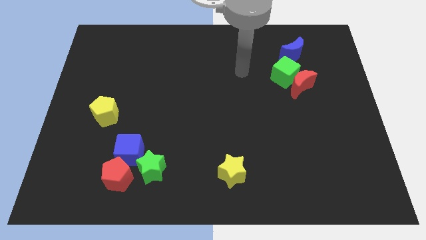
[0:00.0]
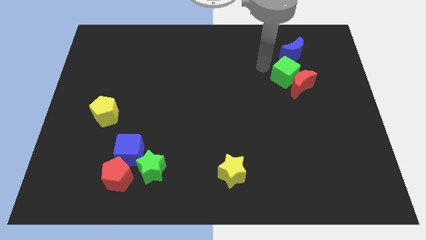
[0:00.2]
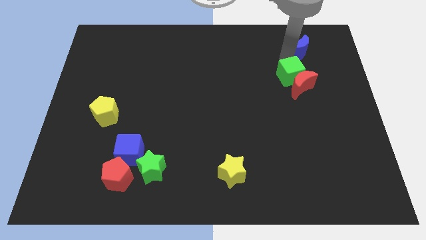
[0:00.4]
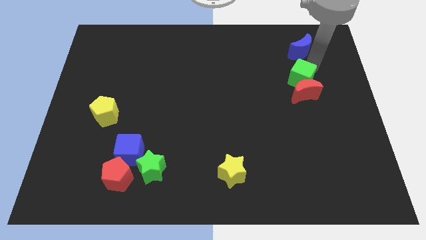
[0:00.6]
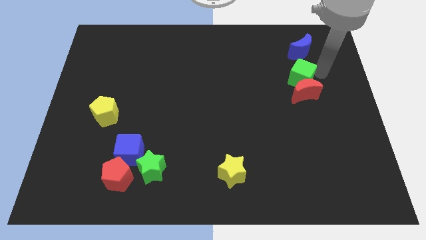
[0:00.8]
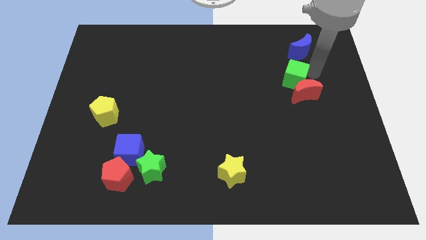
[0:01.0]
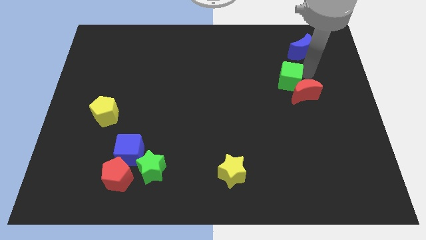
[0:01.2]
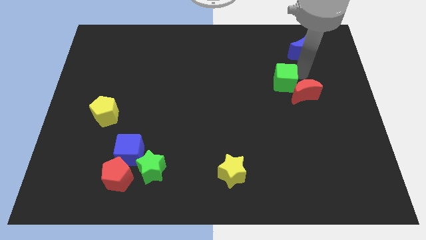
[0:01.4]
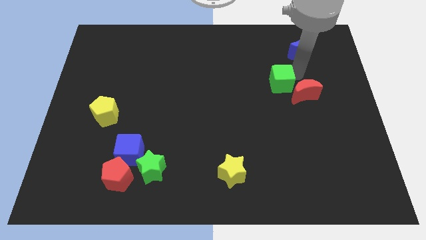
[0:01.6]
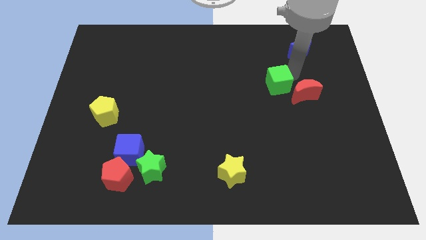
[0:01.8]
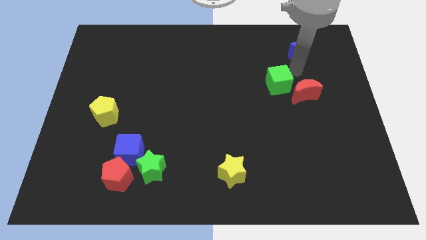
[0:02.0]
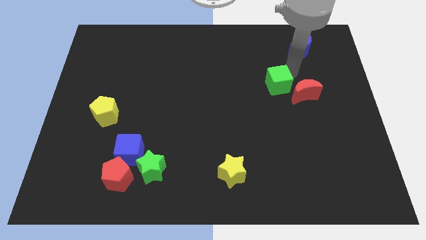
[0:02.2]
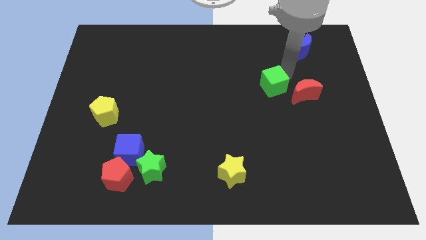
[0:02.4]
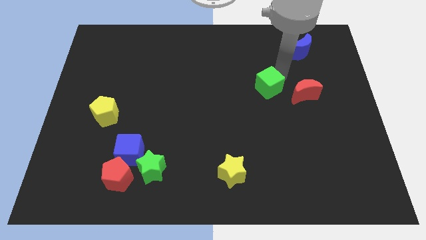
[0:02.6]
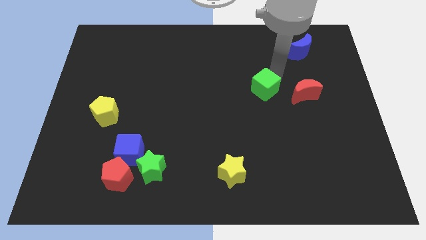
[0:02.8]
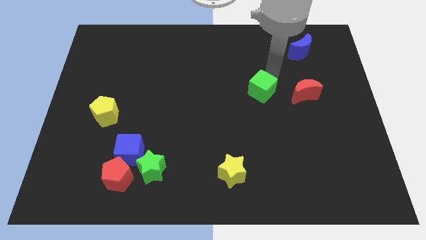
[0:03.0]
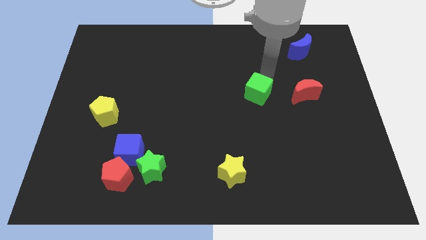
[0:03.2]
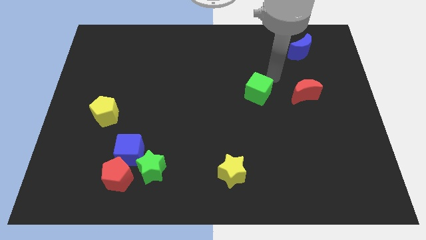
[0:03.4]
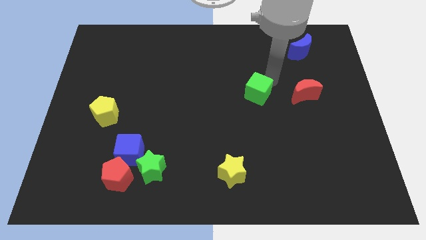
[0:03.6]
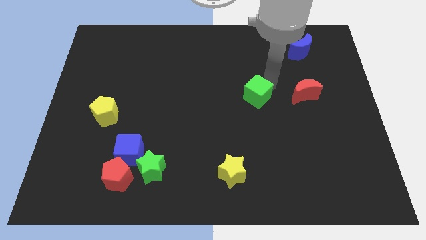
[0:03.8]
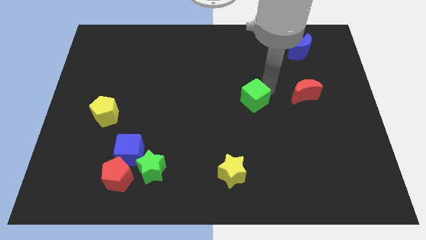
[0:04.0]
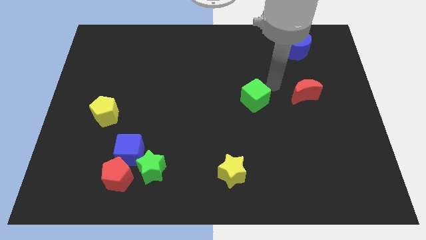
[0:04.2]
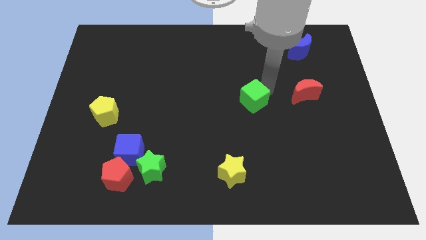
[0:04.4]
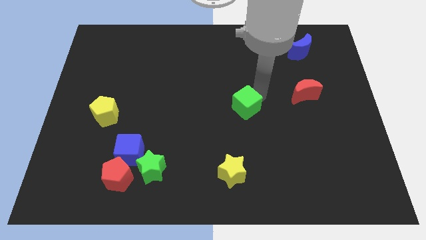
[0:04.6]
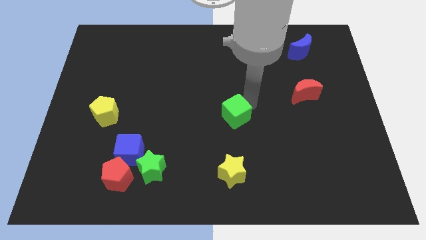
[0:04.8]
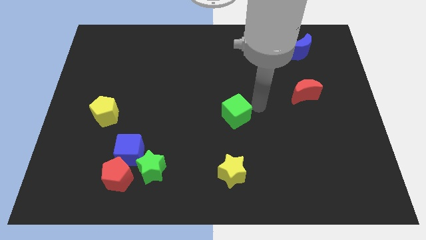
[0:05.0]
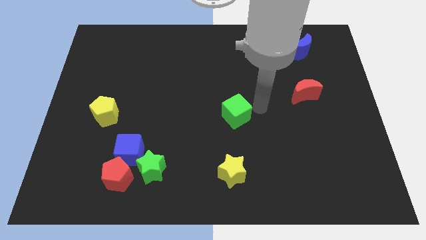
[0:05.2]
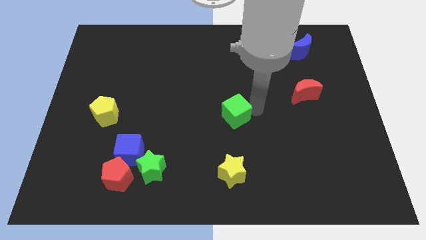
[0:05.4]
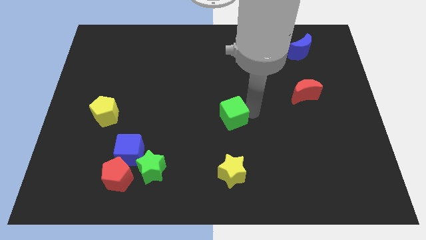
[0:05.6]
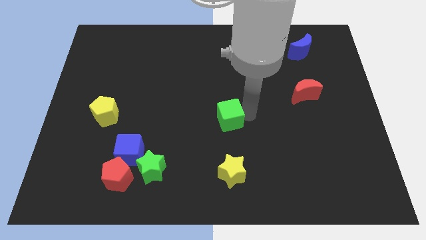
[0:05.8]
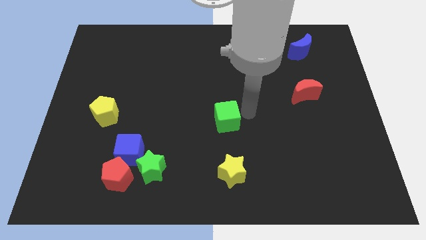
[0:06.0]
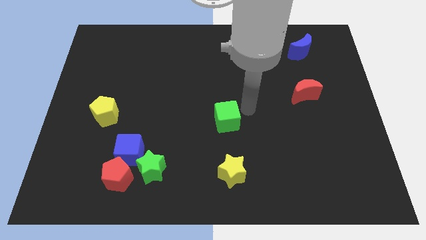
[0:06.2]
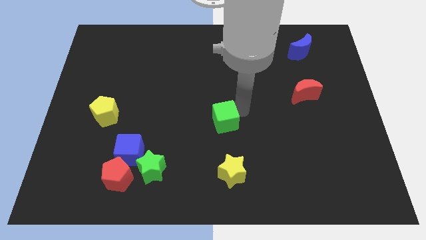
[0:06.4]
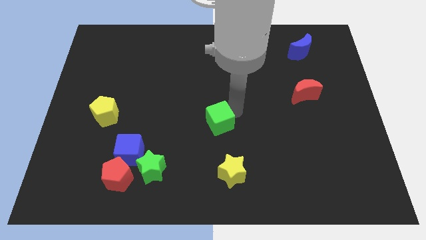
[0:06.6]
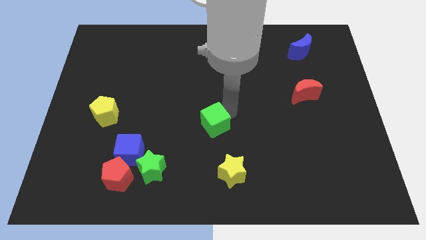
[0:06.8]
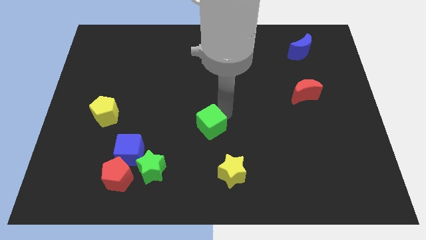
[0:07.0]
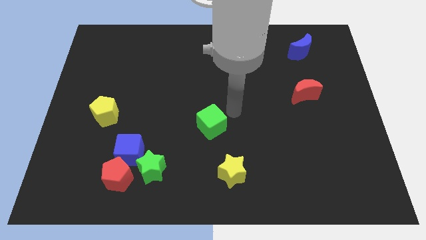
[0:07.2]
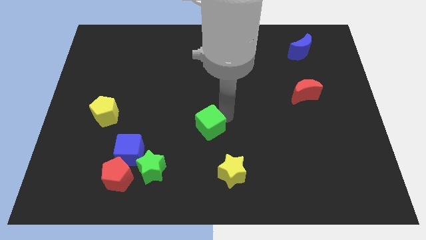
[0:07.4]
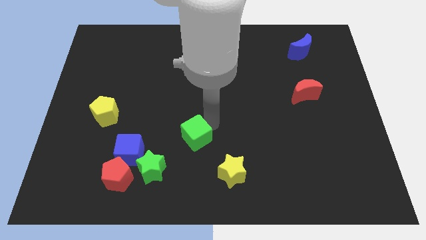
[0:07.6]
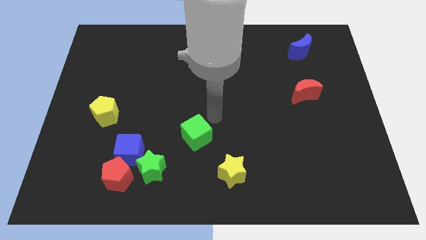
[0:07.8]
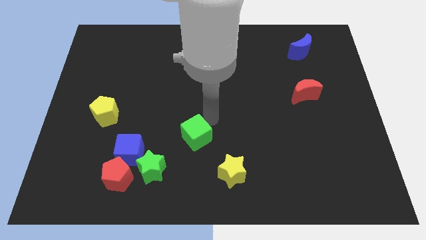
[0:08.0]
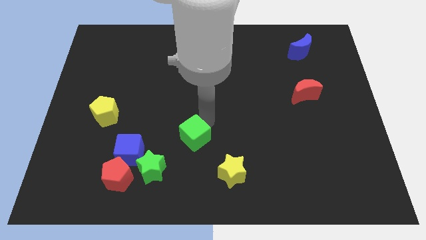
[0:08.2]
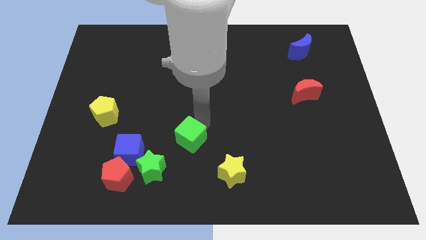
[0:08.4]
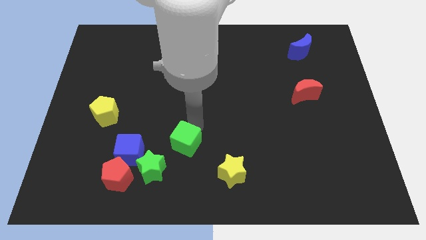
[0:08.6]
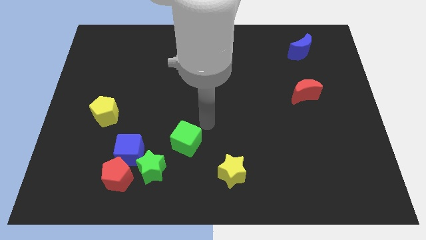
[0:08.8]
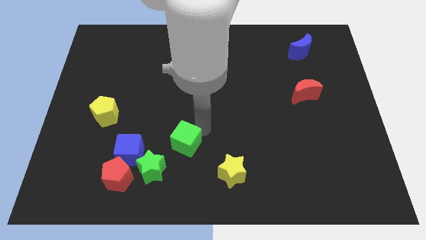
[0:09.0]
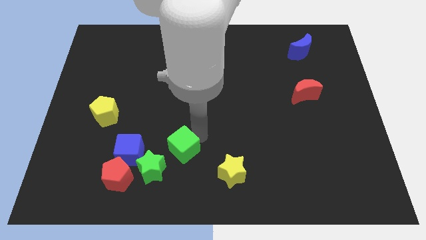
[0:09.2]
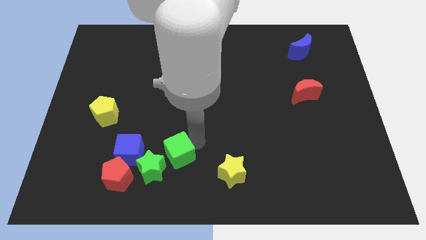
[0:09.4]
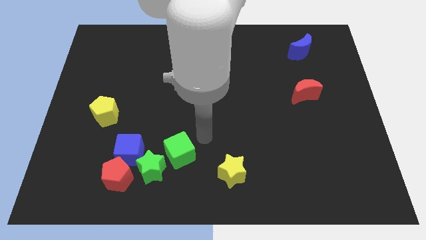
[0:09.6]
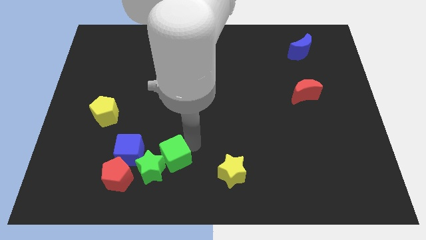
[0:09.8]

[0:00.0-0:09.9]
push the green cube close to the green star

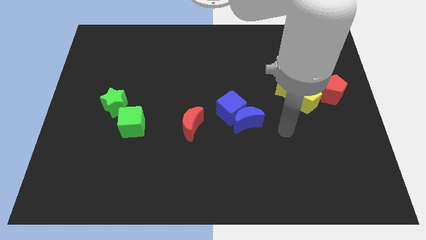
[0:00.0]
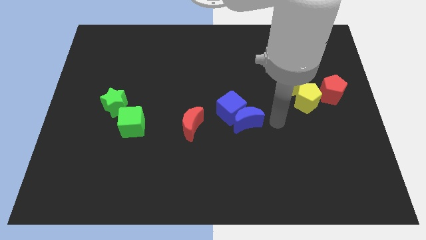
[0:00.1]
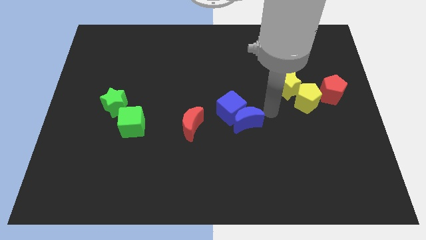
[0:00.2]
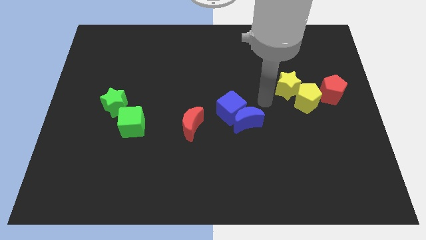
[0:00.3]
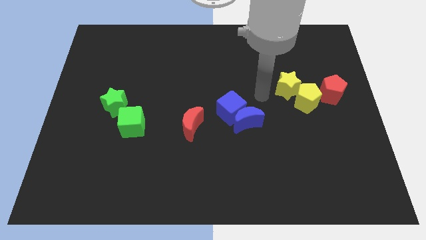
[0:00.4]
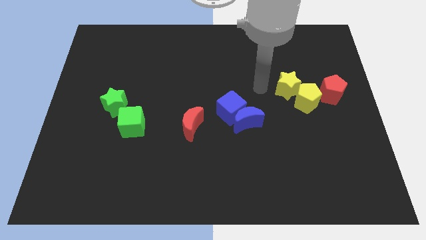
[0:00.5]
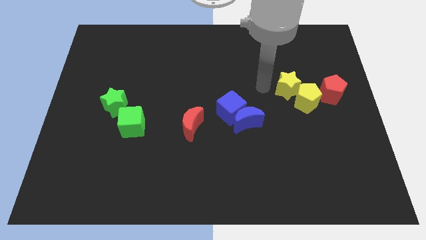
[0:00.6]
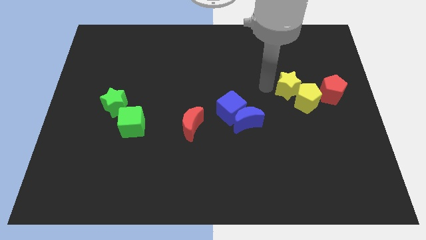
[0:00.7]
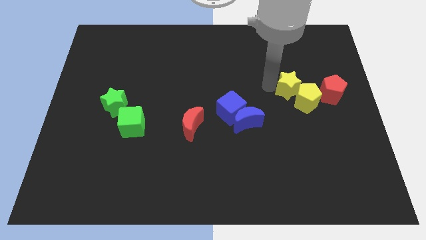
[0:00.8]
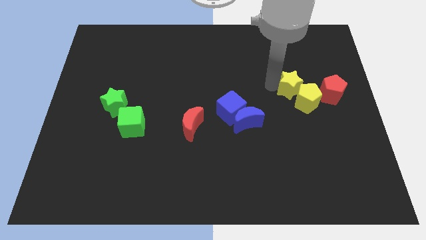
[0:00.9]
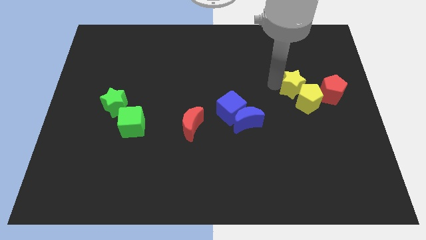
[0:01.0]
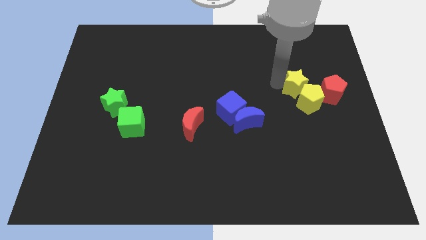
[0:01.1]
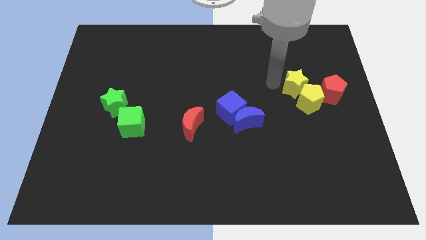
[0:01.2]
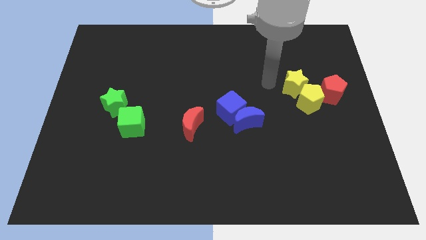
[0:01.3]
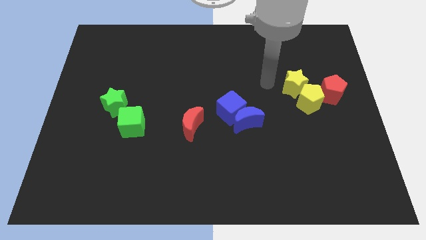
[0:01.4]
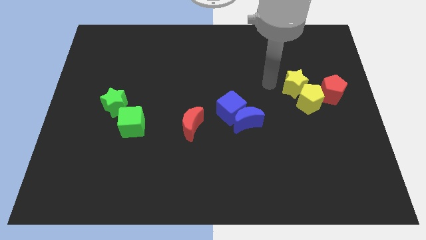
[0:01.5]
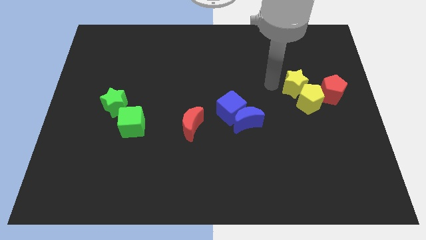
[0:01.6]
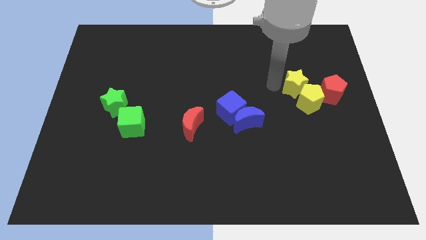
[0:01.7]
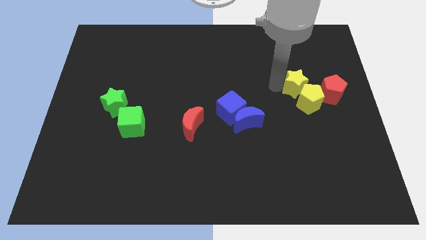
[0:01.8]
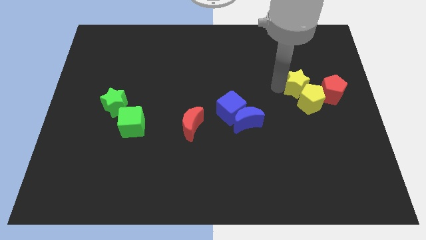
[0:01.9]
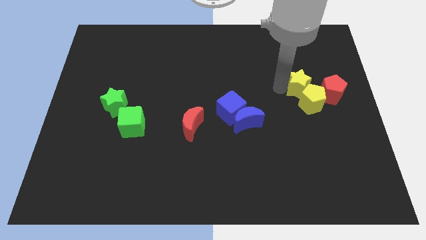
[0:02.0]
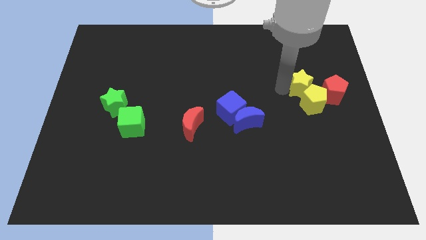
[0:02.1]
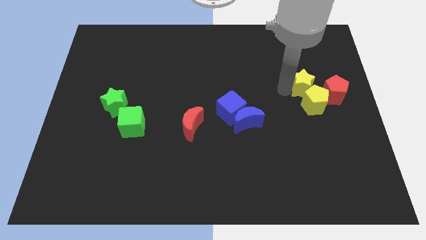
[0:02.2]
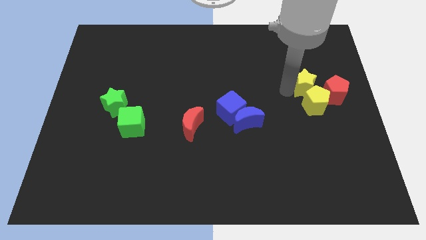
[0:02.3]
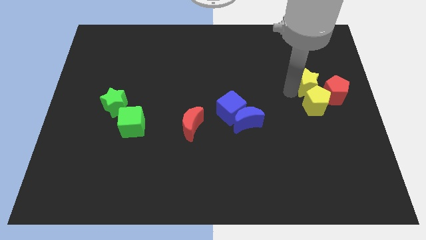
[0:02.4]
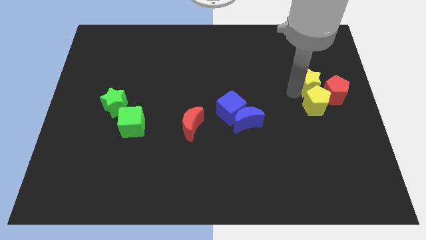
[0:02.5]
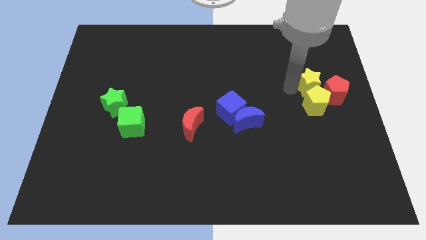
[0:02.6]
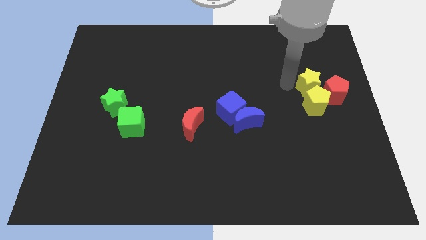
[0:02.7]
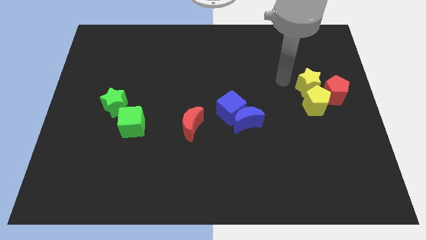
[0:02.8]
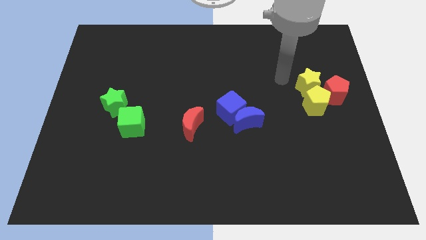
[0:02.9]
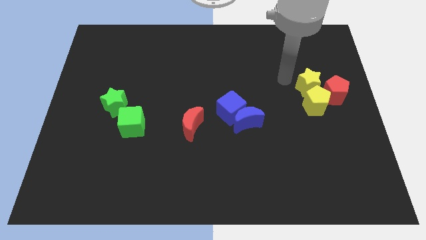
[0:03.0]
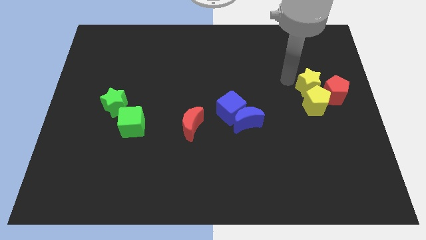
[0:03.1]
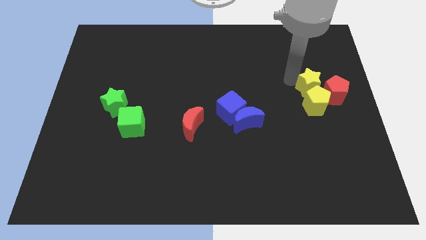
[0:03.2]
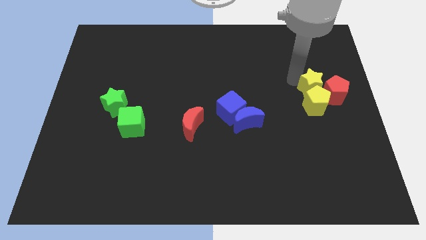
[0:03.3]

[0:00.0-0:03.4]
move the yellow star next to the red pentagon
